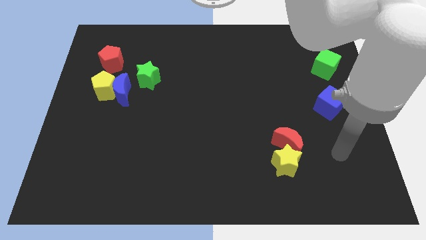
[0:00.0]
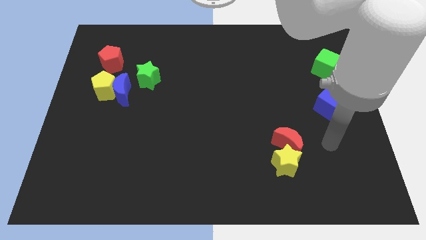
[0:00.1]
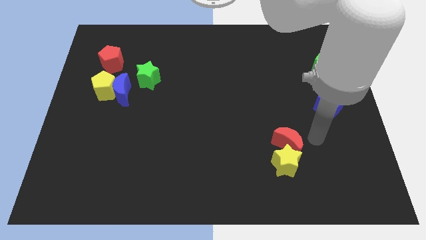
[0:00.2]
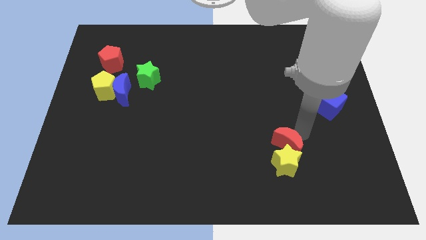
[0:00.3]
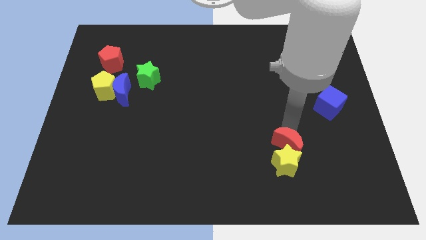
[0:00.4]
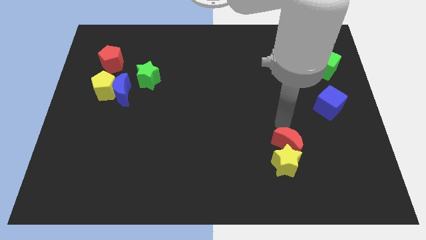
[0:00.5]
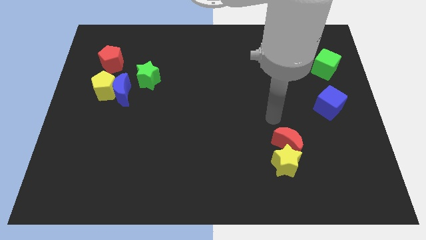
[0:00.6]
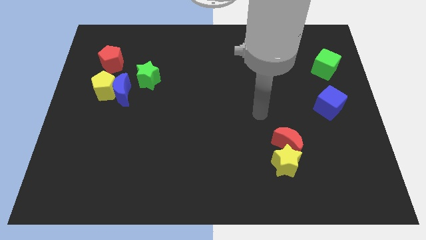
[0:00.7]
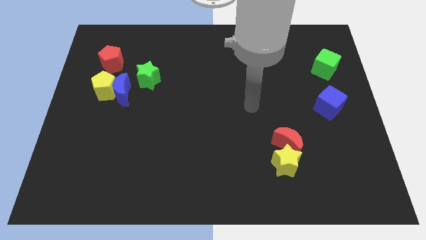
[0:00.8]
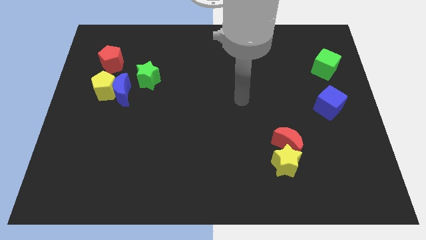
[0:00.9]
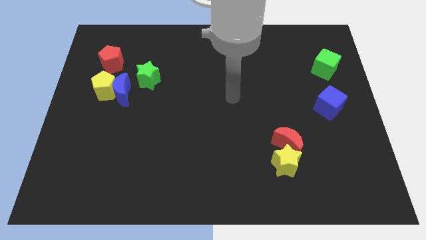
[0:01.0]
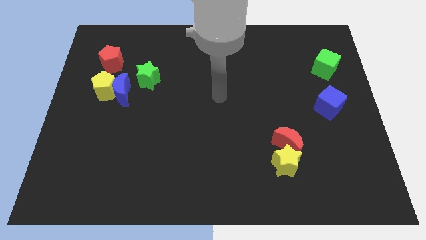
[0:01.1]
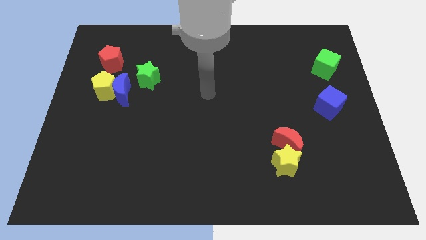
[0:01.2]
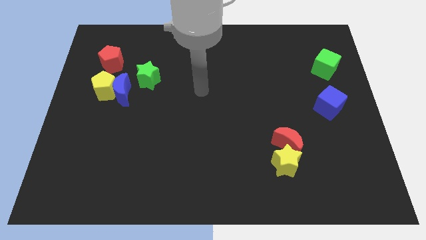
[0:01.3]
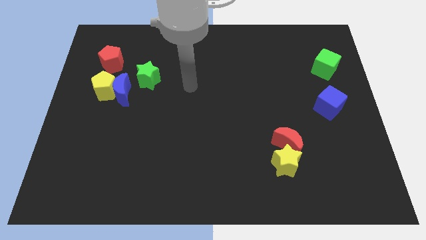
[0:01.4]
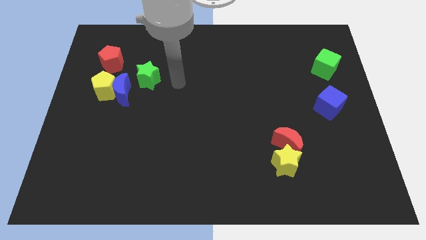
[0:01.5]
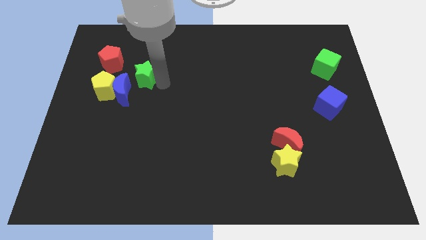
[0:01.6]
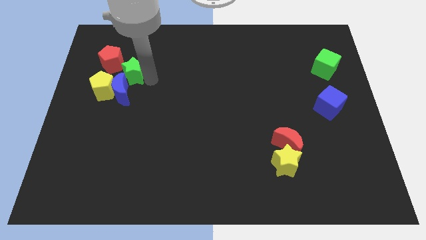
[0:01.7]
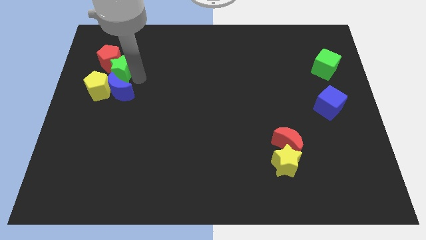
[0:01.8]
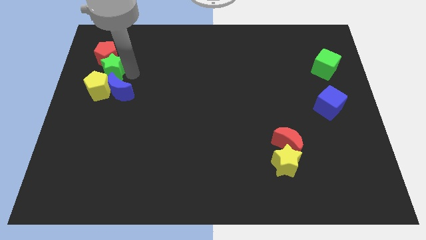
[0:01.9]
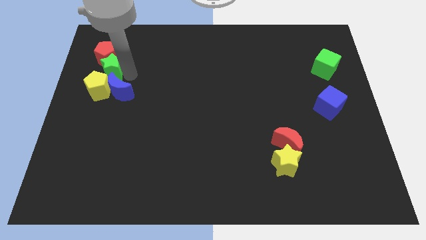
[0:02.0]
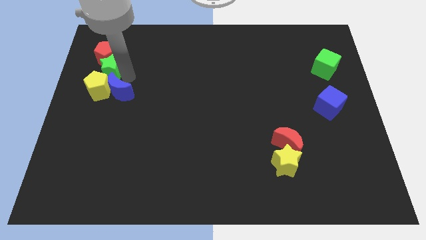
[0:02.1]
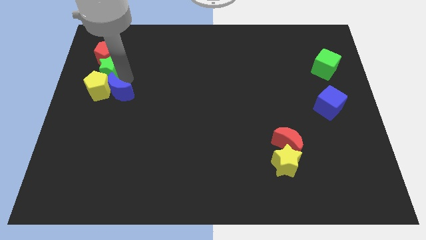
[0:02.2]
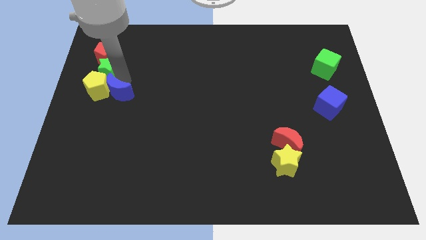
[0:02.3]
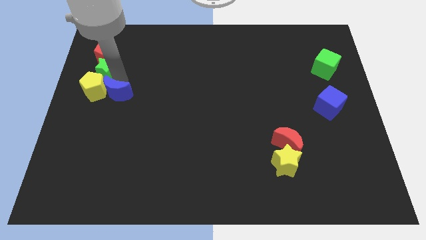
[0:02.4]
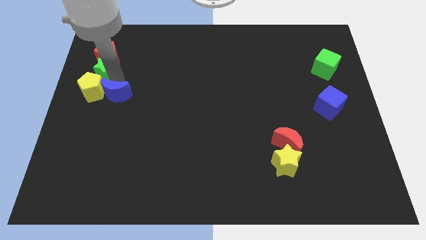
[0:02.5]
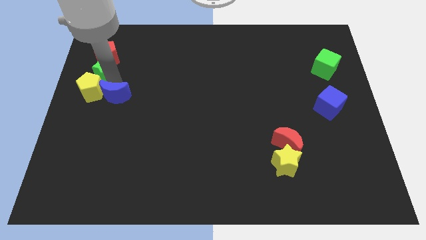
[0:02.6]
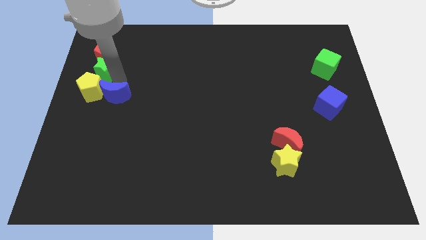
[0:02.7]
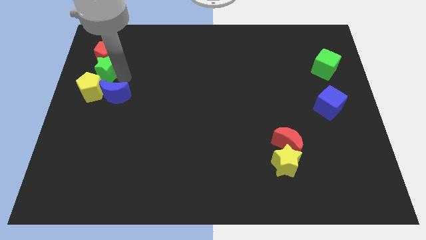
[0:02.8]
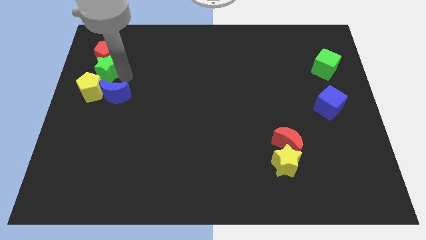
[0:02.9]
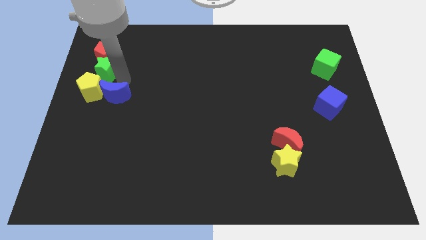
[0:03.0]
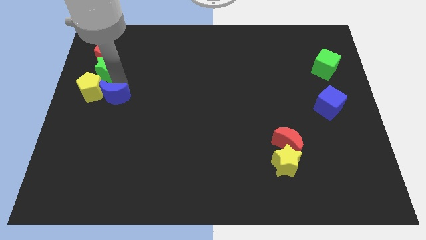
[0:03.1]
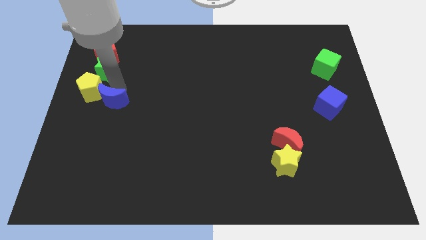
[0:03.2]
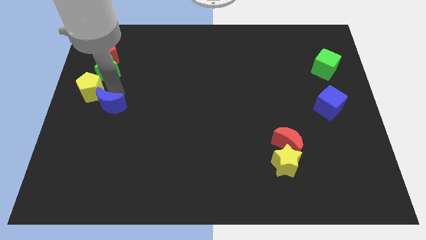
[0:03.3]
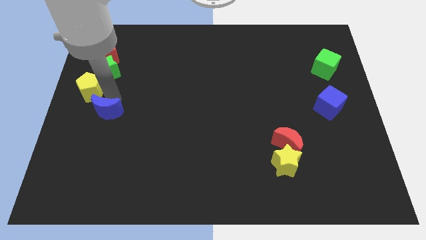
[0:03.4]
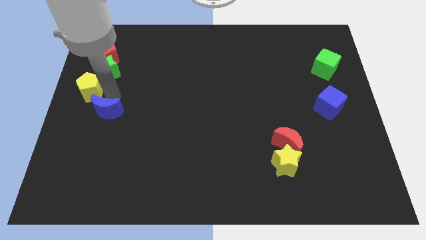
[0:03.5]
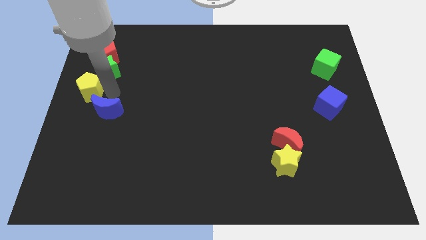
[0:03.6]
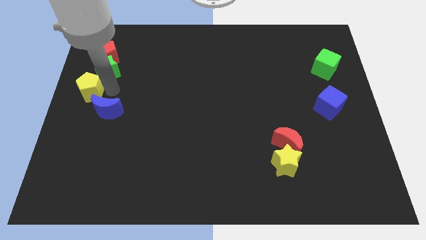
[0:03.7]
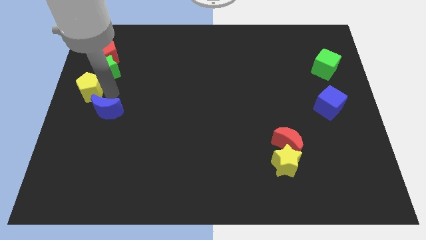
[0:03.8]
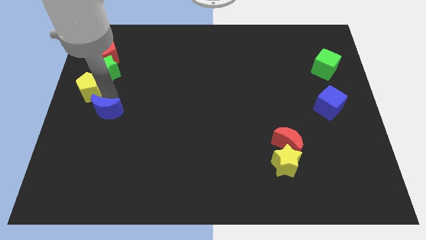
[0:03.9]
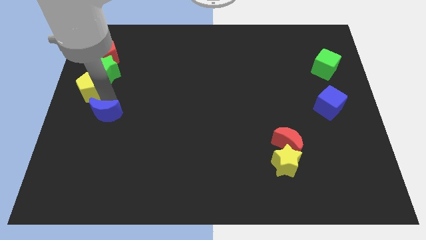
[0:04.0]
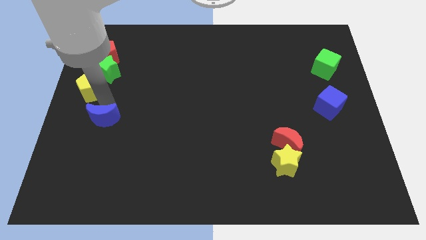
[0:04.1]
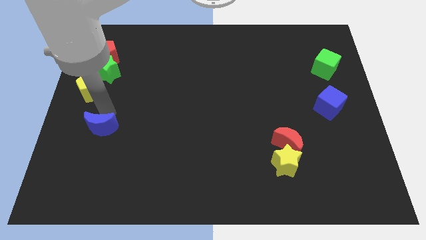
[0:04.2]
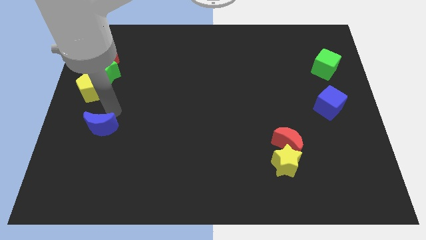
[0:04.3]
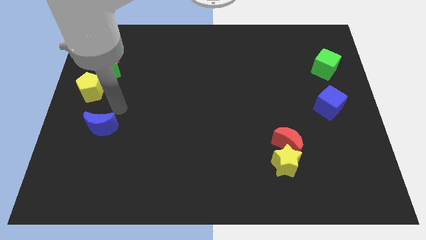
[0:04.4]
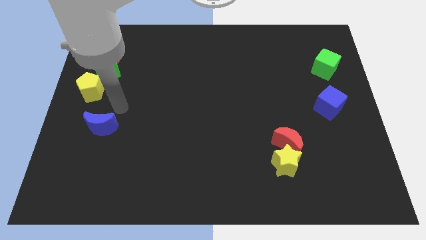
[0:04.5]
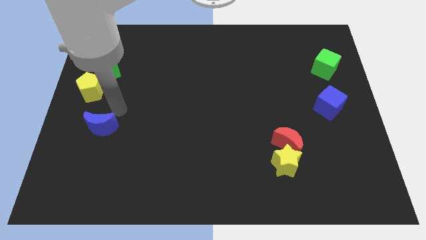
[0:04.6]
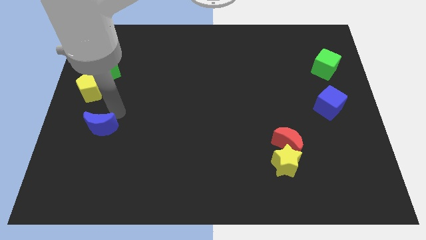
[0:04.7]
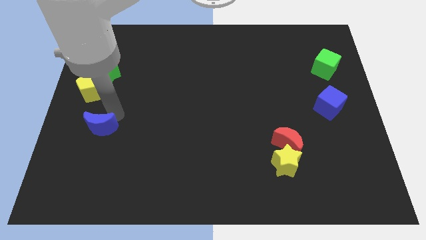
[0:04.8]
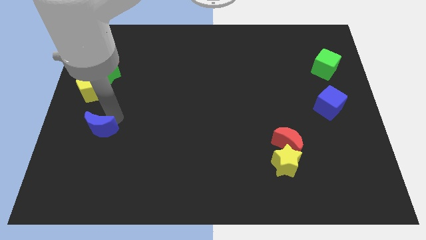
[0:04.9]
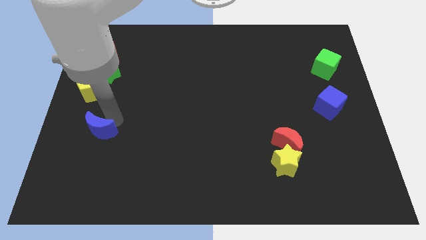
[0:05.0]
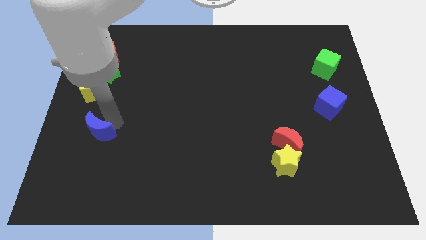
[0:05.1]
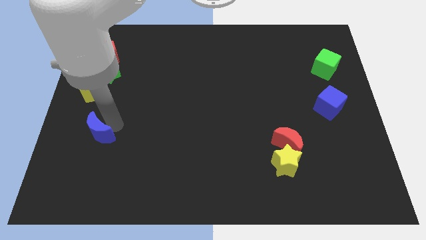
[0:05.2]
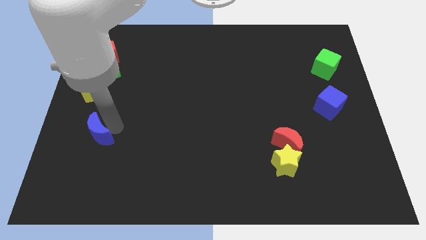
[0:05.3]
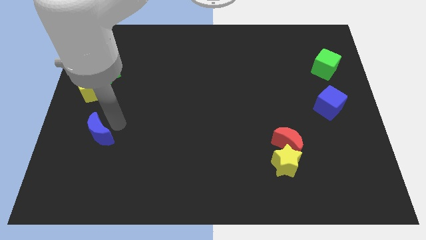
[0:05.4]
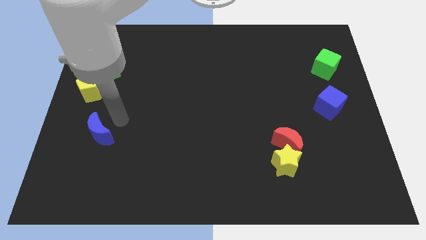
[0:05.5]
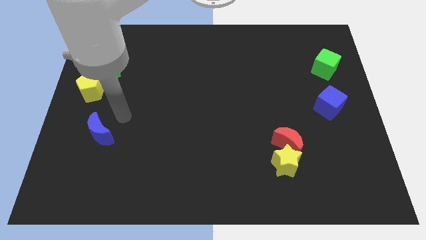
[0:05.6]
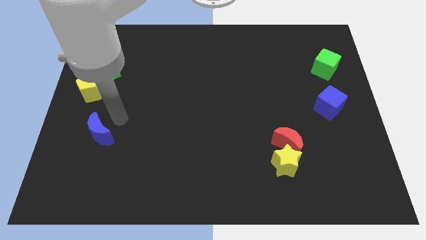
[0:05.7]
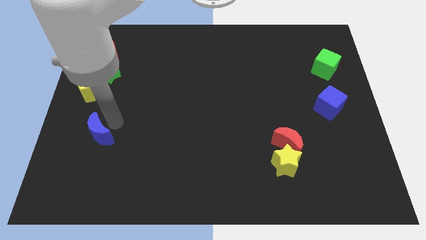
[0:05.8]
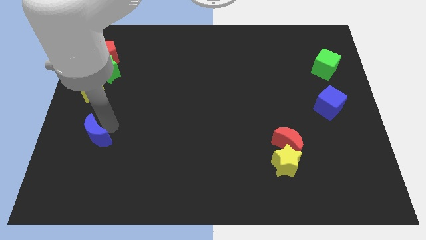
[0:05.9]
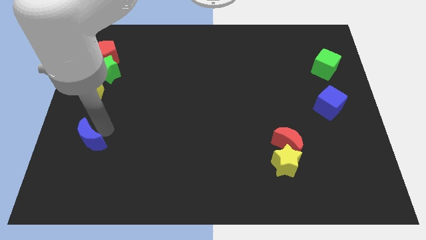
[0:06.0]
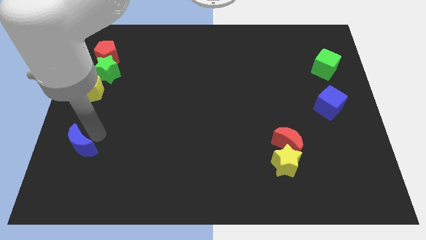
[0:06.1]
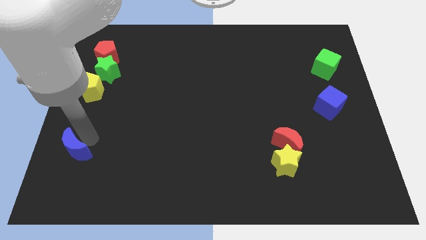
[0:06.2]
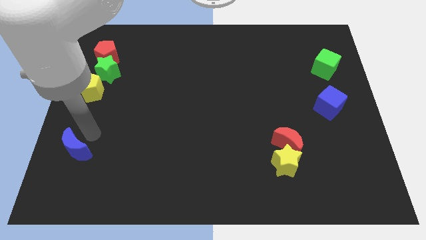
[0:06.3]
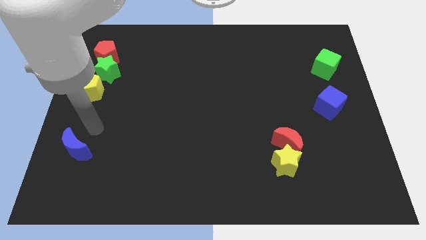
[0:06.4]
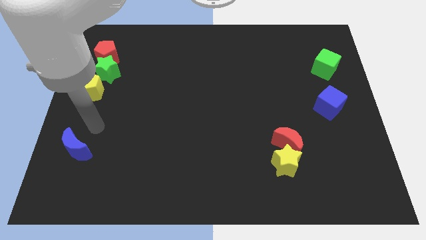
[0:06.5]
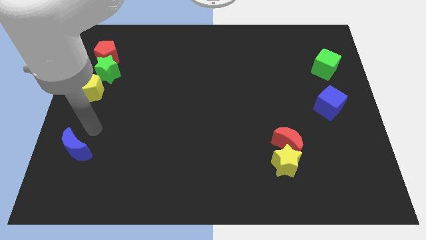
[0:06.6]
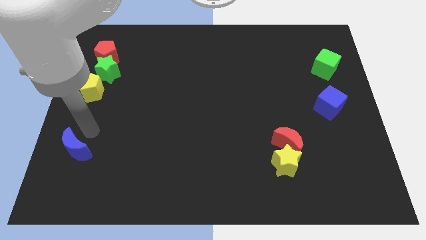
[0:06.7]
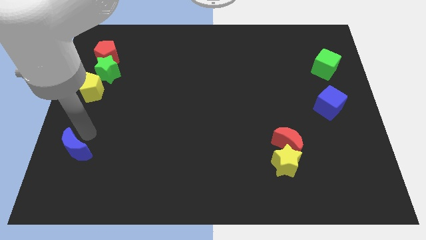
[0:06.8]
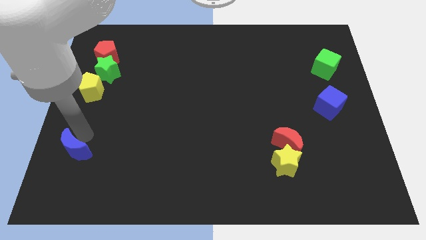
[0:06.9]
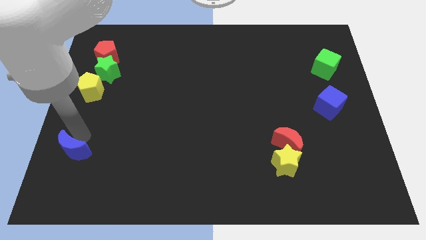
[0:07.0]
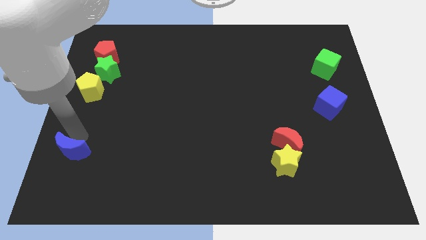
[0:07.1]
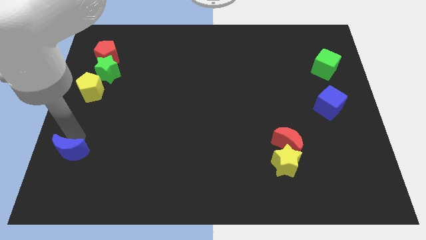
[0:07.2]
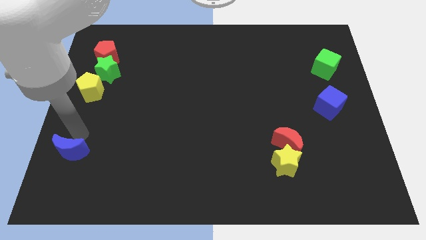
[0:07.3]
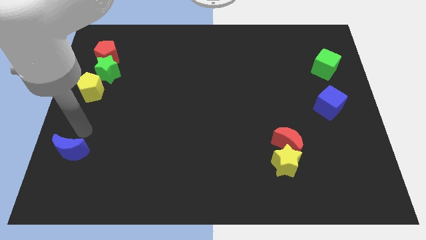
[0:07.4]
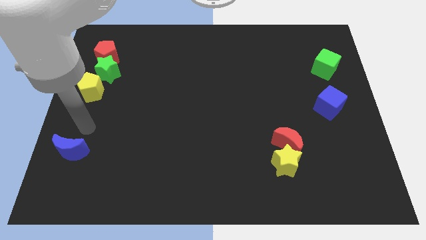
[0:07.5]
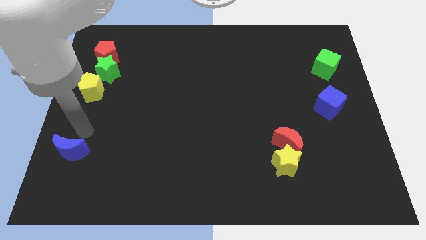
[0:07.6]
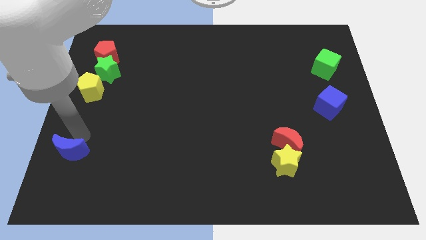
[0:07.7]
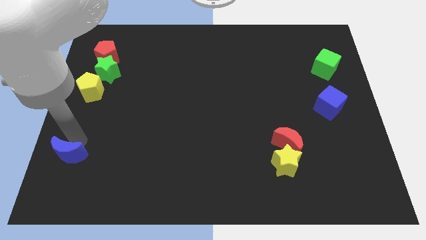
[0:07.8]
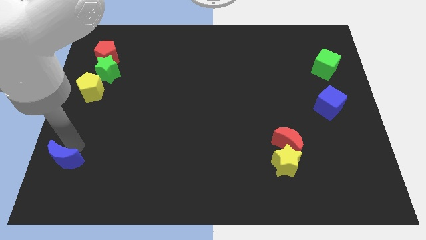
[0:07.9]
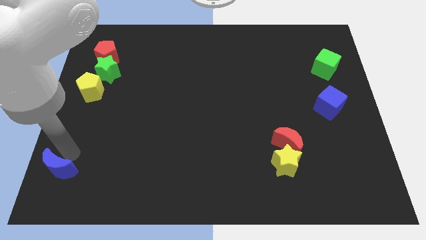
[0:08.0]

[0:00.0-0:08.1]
push the blue moon to the lower left corner
